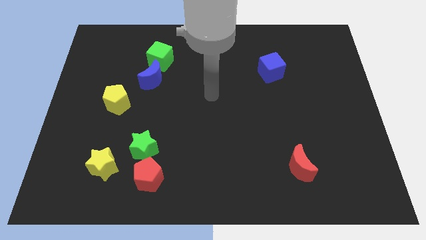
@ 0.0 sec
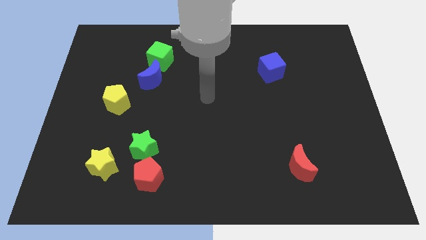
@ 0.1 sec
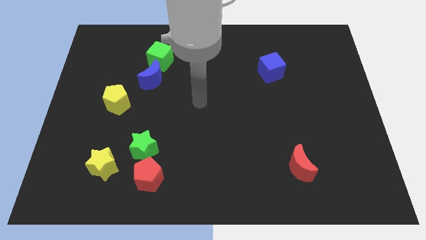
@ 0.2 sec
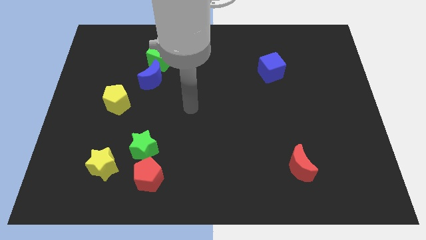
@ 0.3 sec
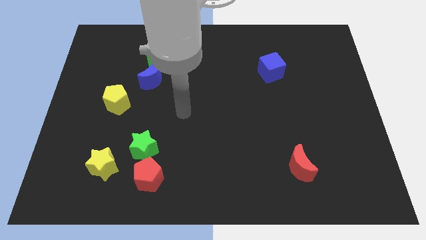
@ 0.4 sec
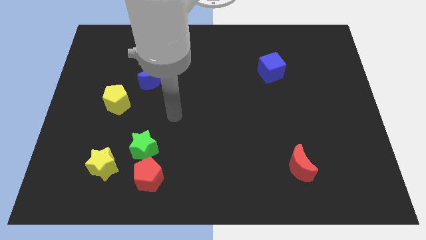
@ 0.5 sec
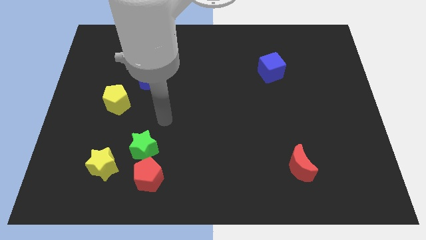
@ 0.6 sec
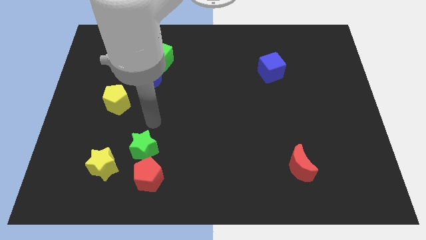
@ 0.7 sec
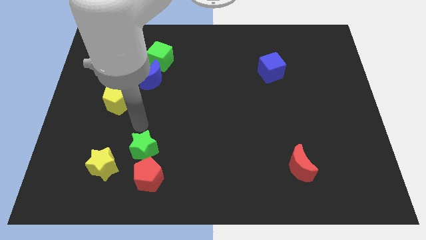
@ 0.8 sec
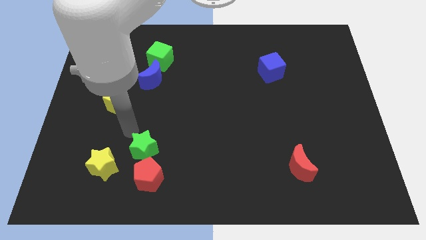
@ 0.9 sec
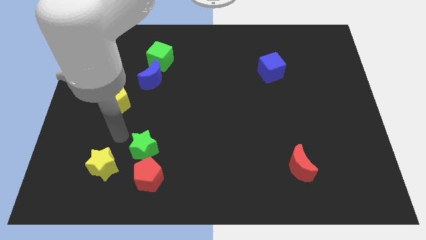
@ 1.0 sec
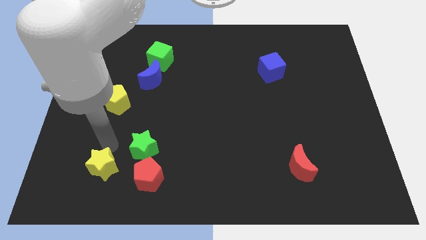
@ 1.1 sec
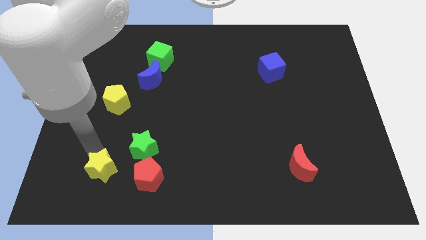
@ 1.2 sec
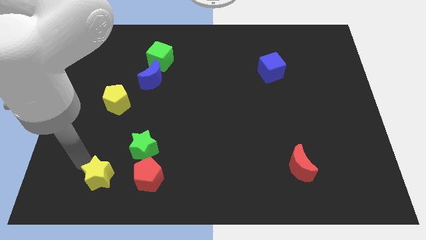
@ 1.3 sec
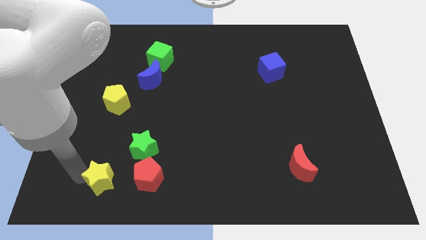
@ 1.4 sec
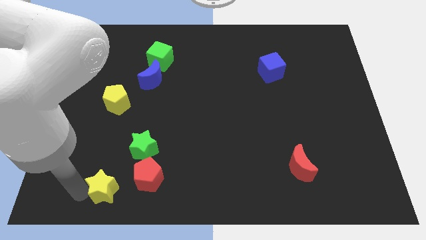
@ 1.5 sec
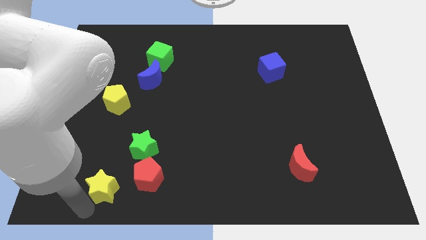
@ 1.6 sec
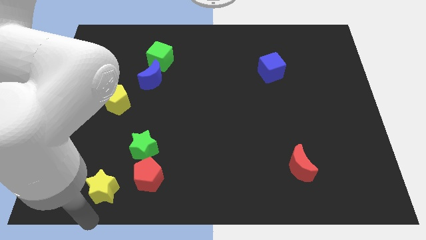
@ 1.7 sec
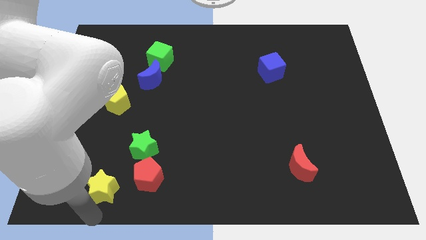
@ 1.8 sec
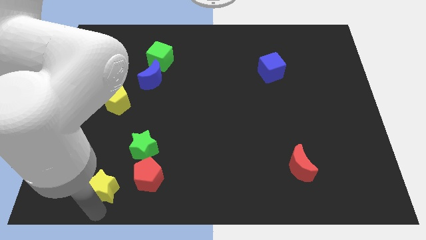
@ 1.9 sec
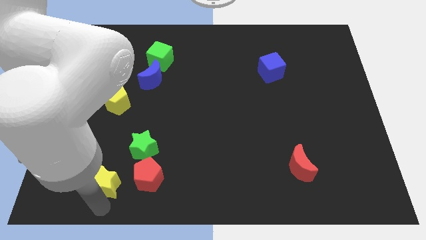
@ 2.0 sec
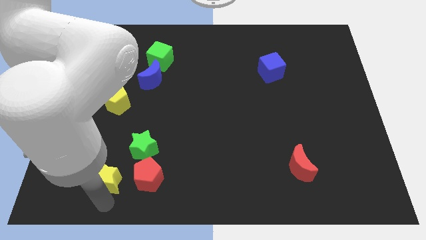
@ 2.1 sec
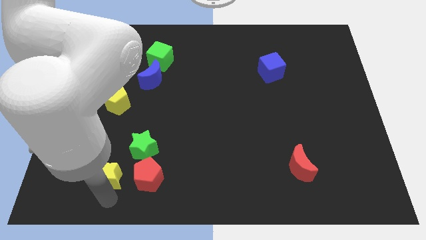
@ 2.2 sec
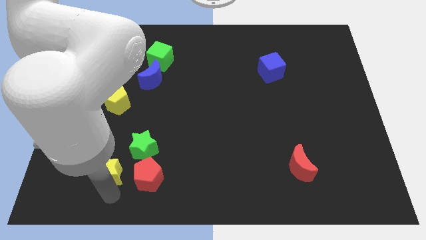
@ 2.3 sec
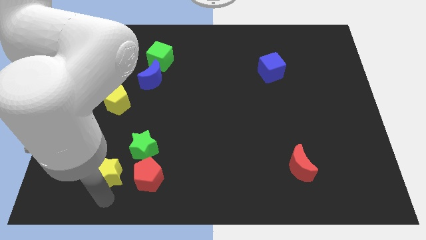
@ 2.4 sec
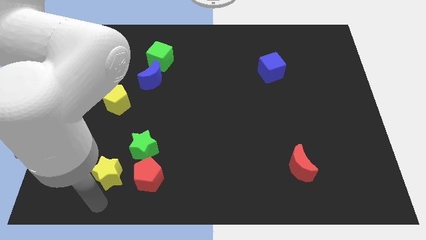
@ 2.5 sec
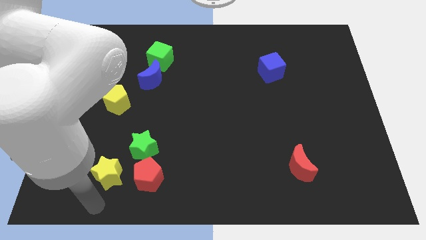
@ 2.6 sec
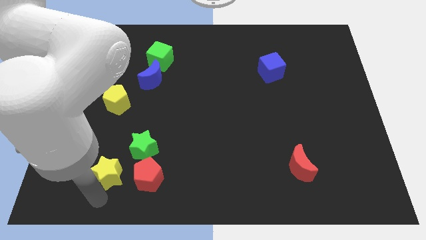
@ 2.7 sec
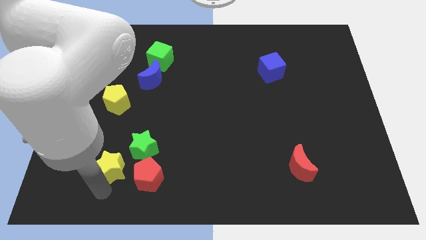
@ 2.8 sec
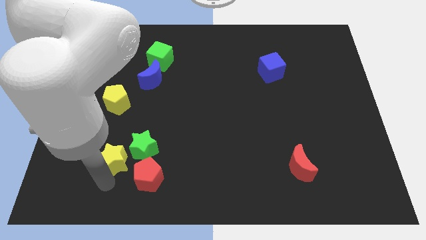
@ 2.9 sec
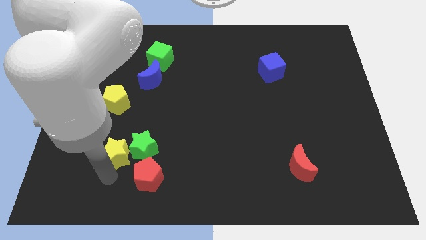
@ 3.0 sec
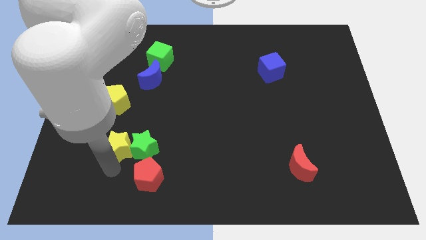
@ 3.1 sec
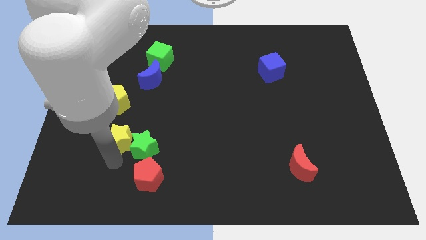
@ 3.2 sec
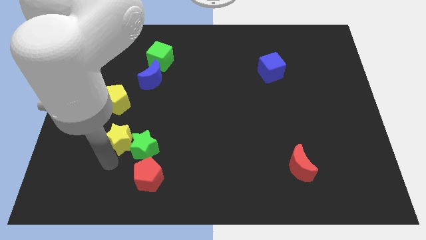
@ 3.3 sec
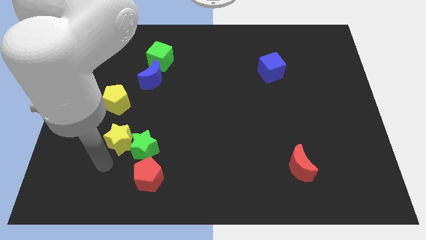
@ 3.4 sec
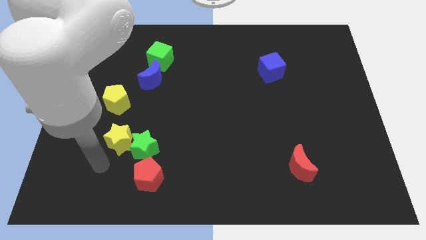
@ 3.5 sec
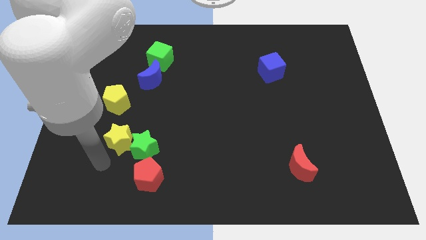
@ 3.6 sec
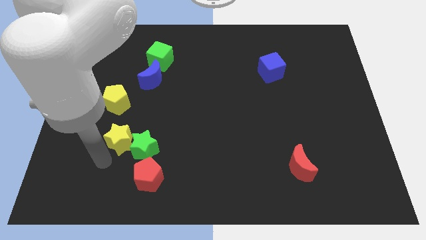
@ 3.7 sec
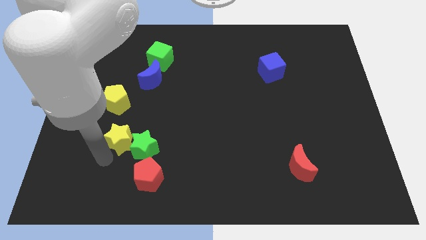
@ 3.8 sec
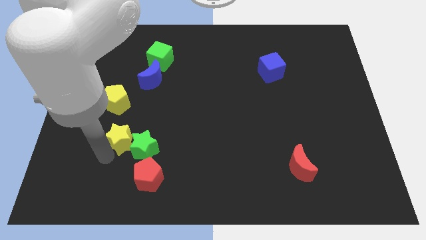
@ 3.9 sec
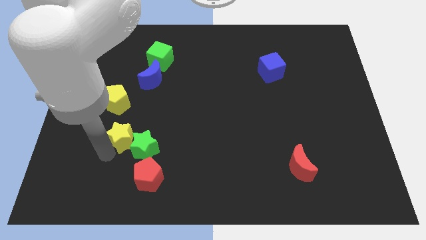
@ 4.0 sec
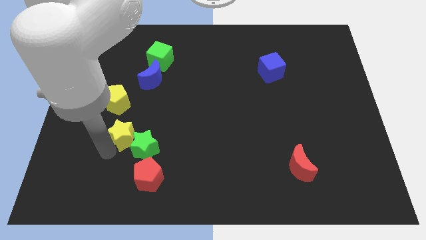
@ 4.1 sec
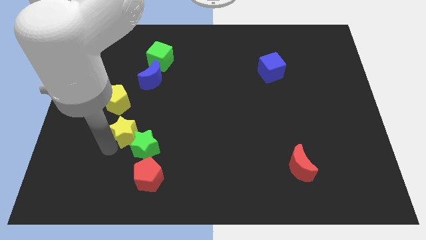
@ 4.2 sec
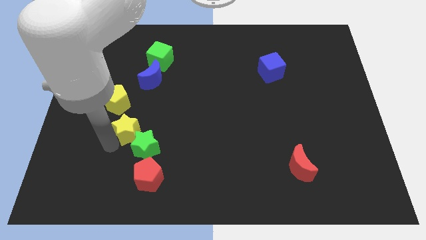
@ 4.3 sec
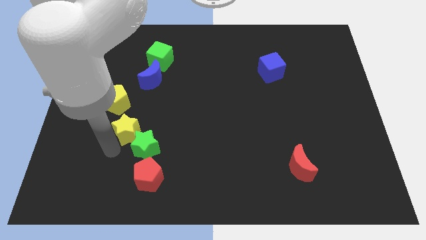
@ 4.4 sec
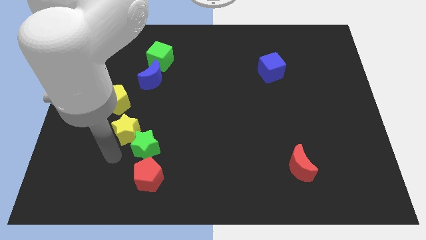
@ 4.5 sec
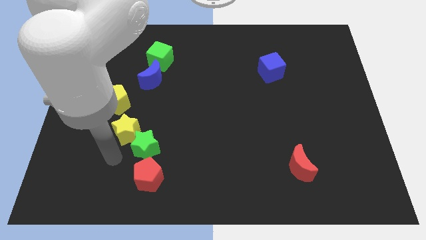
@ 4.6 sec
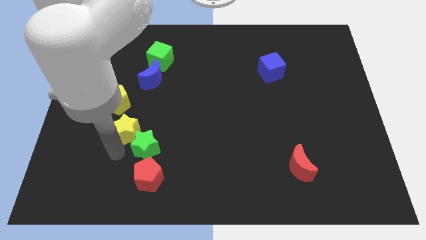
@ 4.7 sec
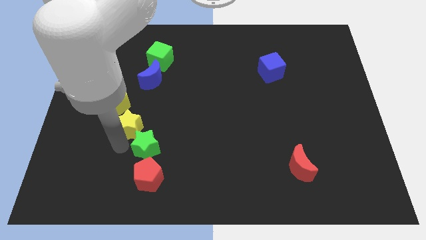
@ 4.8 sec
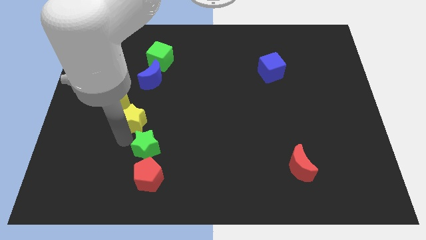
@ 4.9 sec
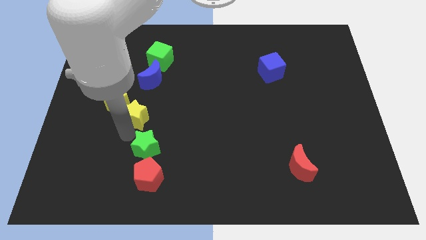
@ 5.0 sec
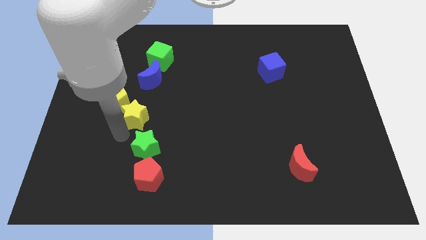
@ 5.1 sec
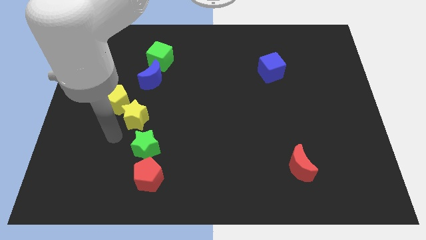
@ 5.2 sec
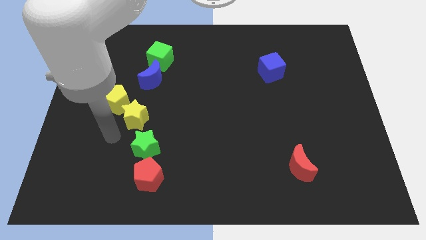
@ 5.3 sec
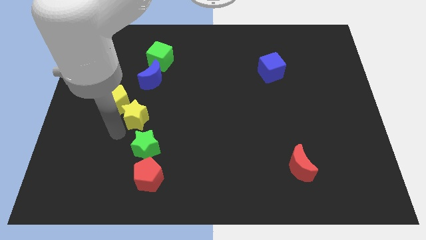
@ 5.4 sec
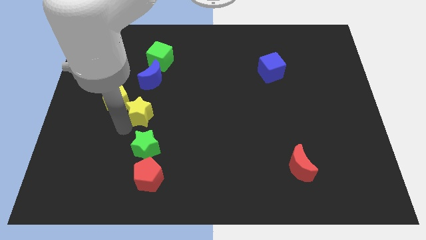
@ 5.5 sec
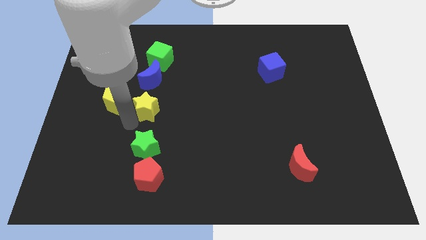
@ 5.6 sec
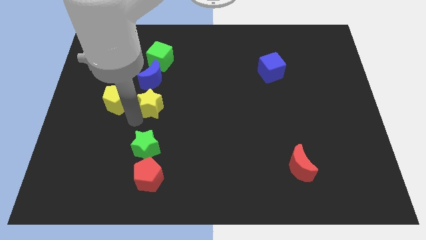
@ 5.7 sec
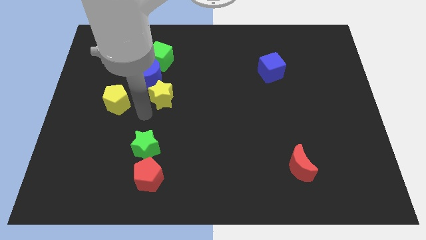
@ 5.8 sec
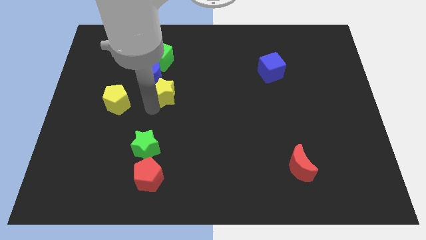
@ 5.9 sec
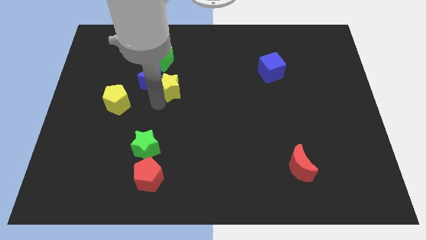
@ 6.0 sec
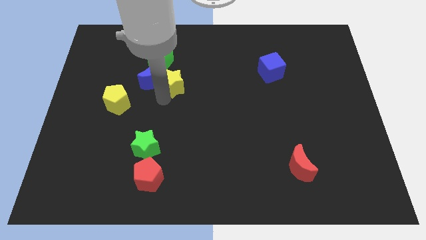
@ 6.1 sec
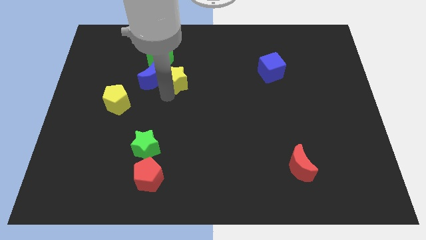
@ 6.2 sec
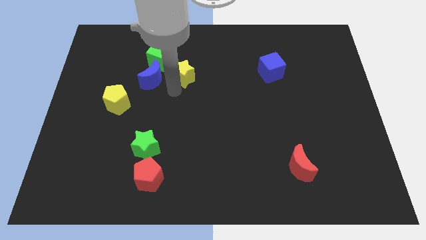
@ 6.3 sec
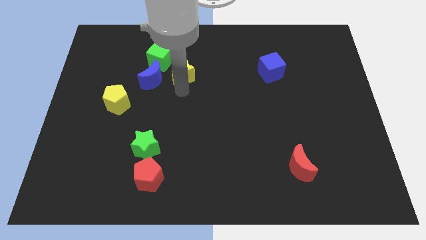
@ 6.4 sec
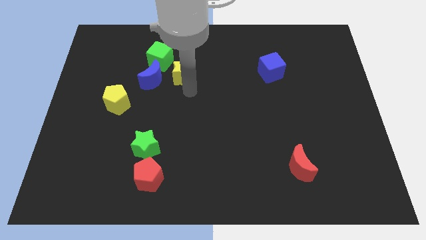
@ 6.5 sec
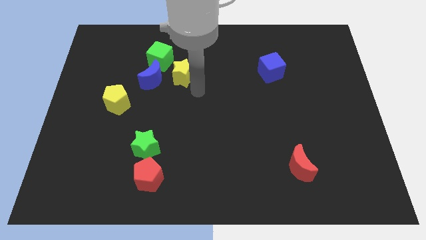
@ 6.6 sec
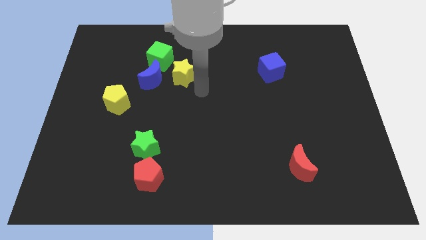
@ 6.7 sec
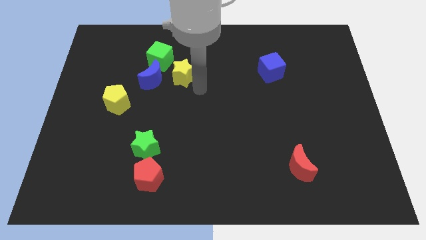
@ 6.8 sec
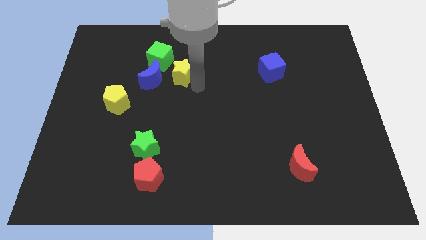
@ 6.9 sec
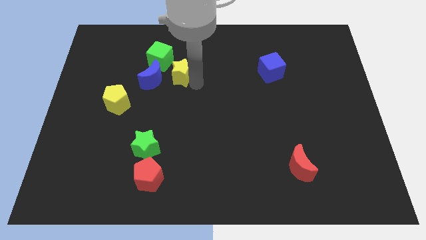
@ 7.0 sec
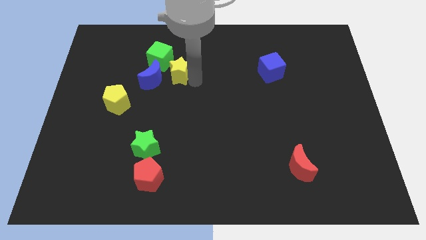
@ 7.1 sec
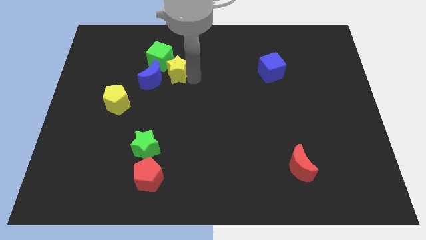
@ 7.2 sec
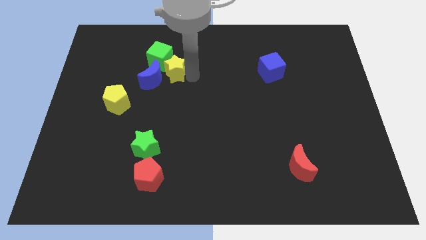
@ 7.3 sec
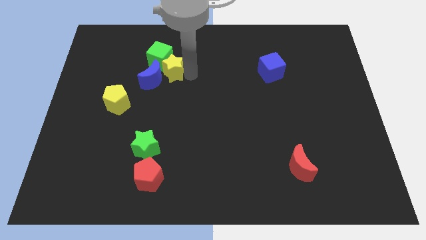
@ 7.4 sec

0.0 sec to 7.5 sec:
slide the yellow star next to the green cube
